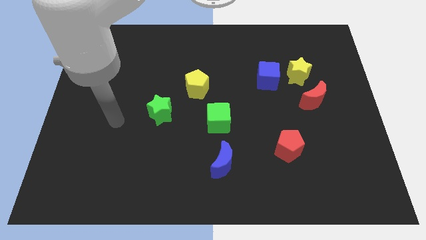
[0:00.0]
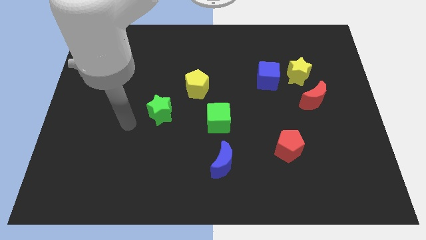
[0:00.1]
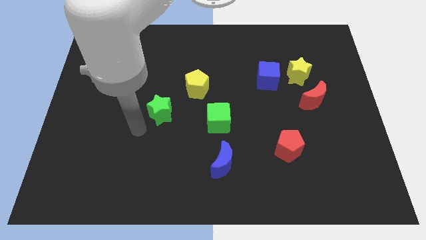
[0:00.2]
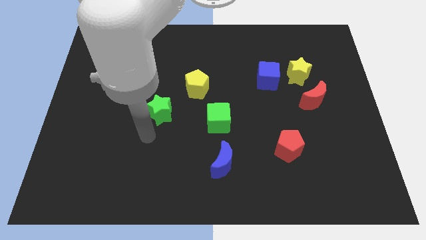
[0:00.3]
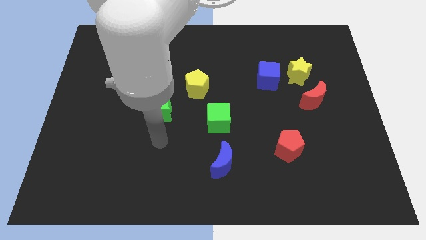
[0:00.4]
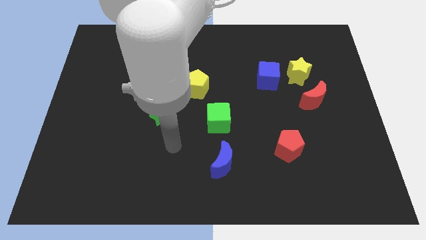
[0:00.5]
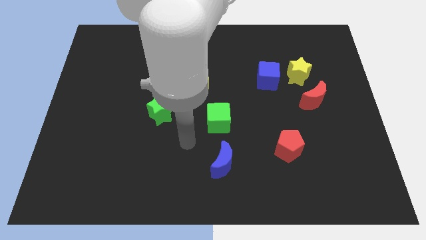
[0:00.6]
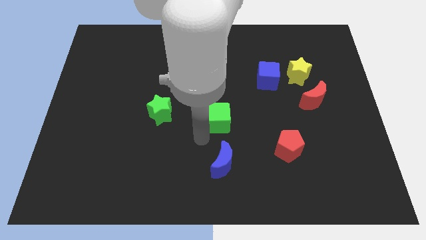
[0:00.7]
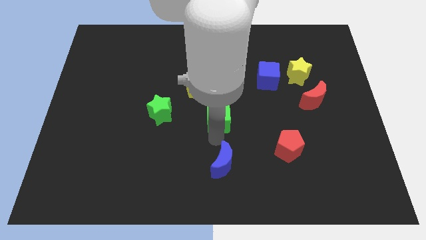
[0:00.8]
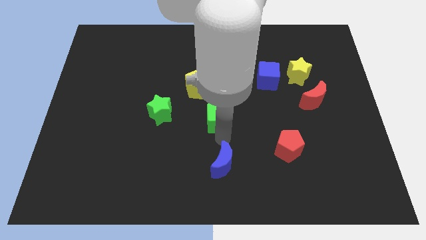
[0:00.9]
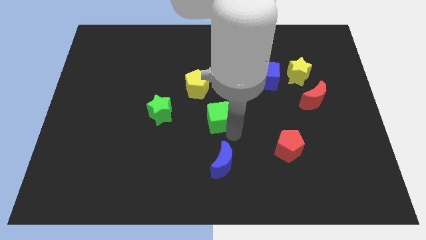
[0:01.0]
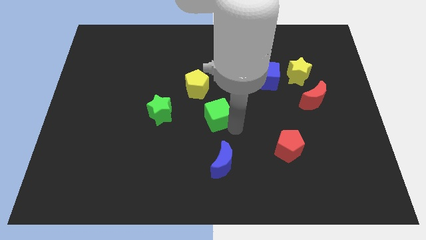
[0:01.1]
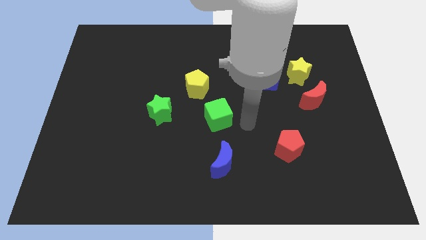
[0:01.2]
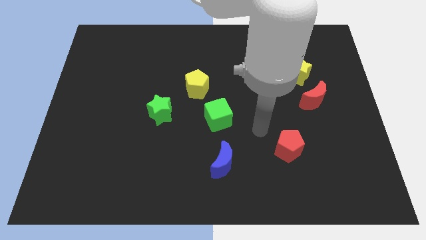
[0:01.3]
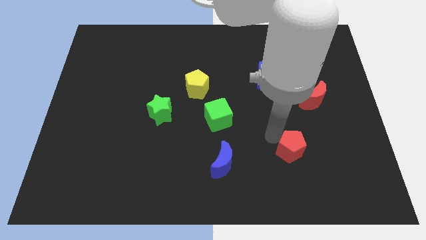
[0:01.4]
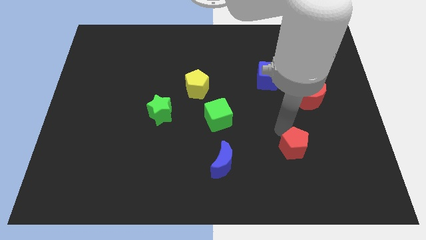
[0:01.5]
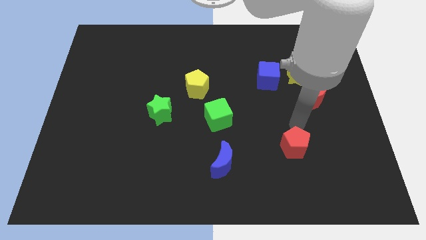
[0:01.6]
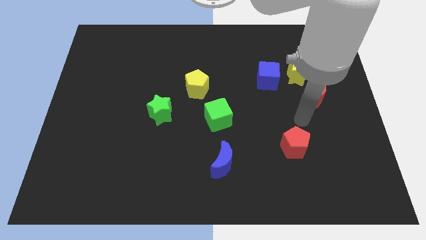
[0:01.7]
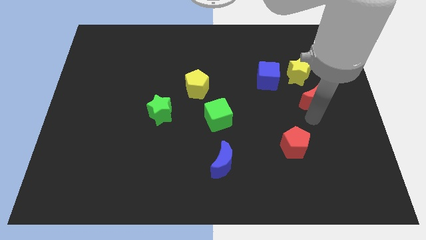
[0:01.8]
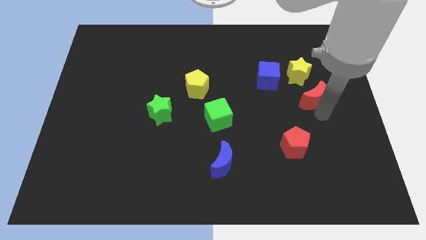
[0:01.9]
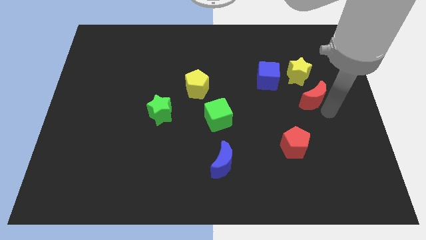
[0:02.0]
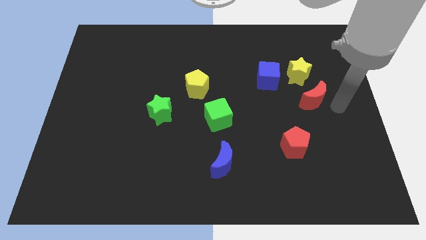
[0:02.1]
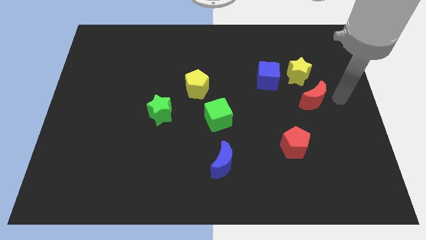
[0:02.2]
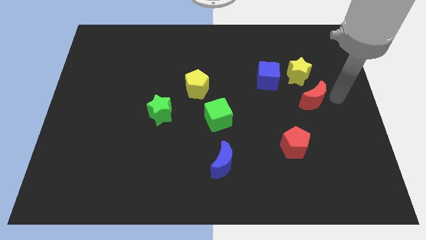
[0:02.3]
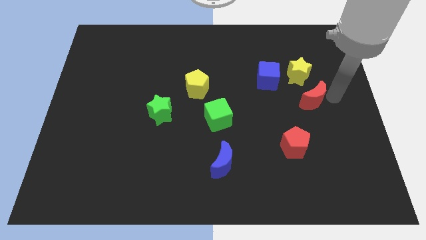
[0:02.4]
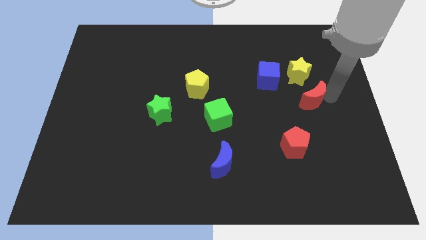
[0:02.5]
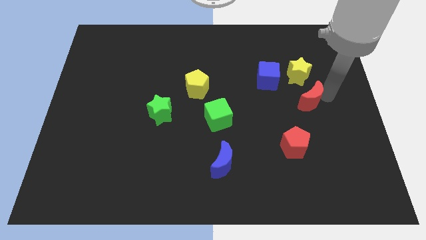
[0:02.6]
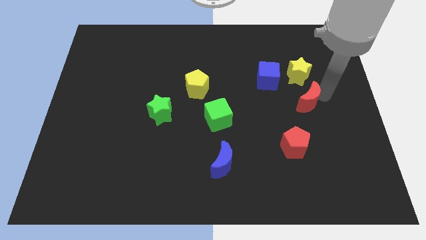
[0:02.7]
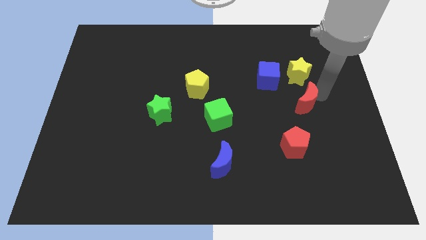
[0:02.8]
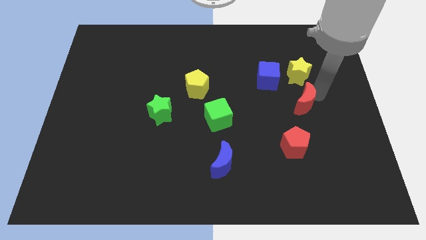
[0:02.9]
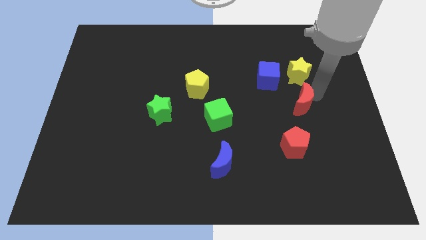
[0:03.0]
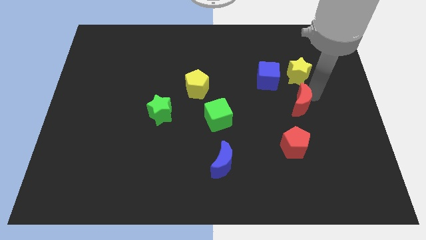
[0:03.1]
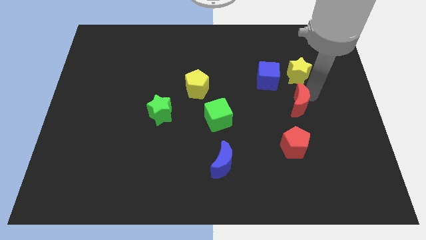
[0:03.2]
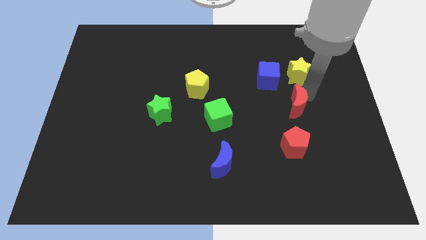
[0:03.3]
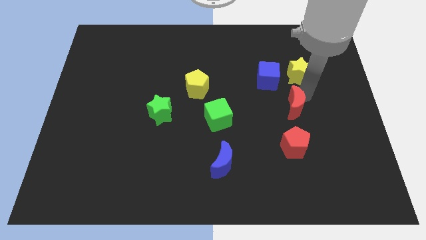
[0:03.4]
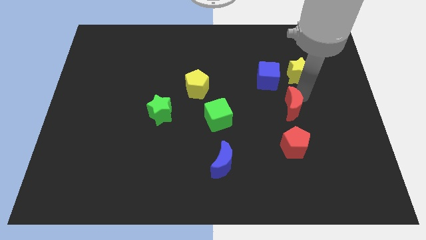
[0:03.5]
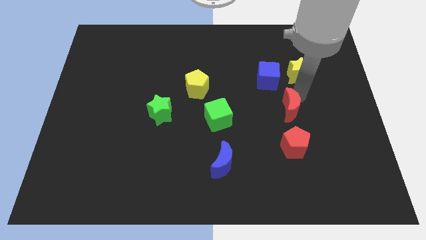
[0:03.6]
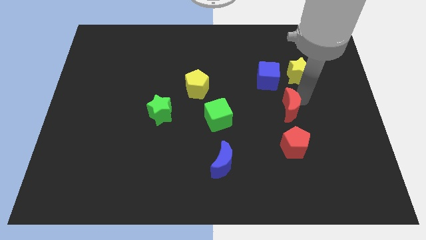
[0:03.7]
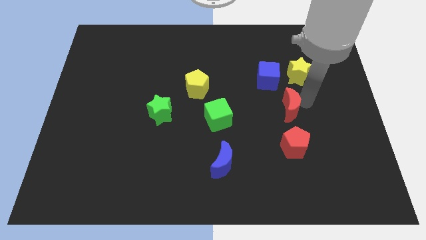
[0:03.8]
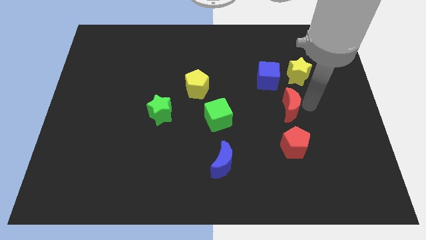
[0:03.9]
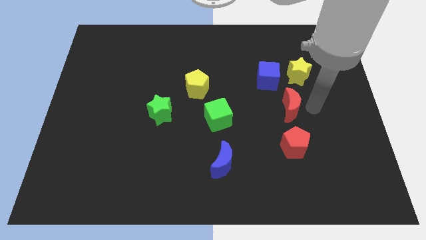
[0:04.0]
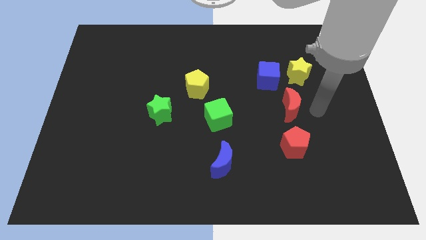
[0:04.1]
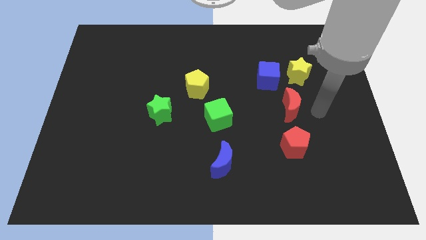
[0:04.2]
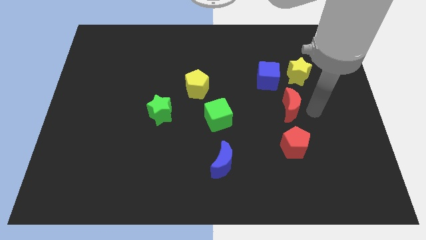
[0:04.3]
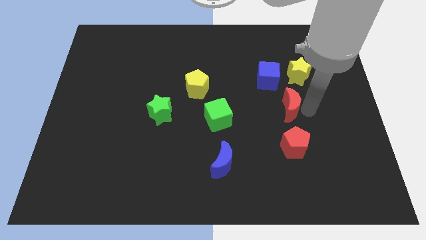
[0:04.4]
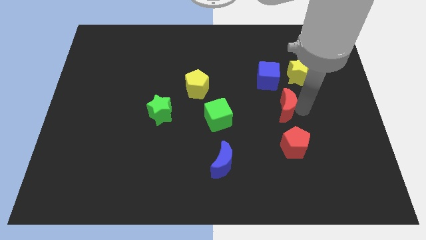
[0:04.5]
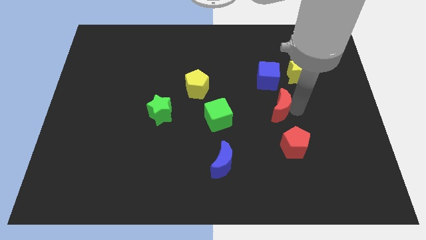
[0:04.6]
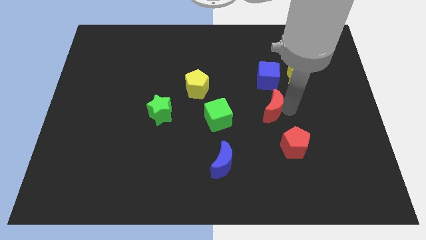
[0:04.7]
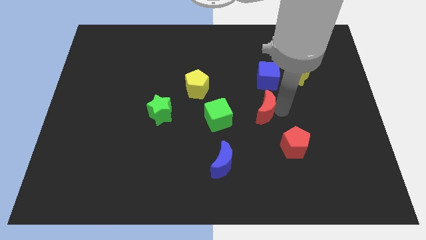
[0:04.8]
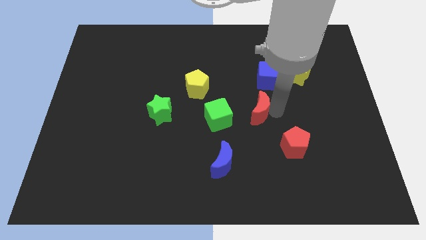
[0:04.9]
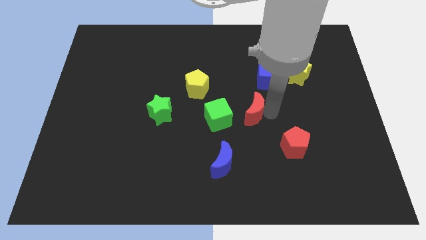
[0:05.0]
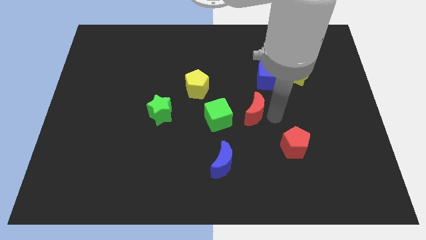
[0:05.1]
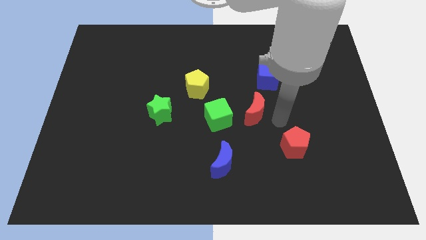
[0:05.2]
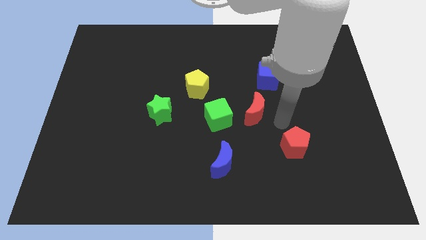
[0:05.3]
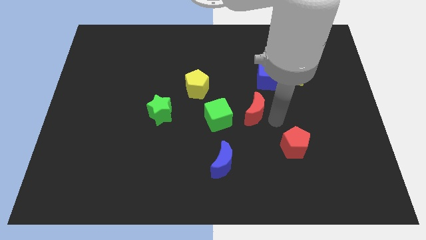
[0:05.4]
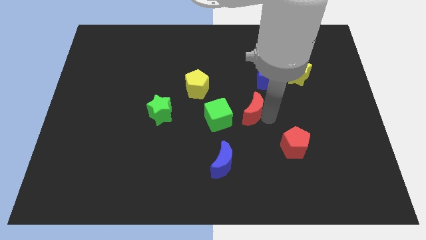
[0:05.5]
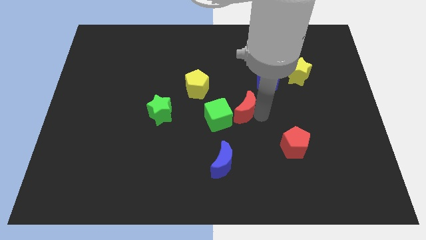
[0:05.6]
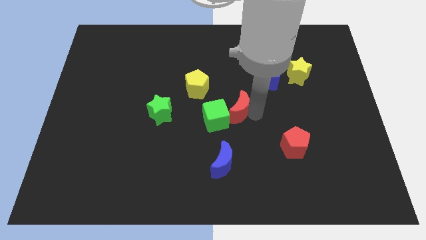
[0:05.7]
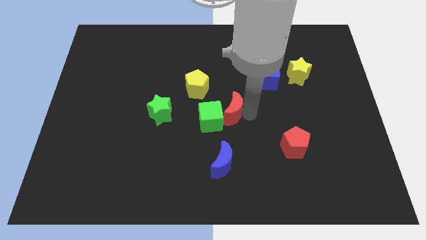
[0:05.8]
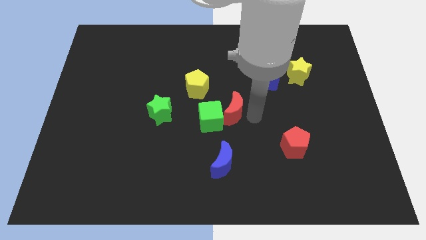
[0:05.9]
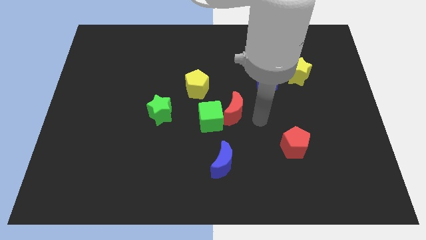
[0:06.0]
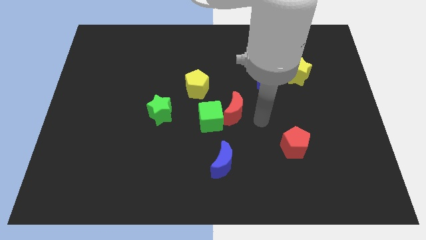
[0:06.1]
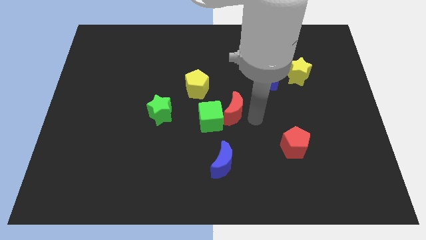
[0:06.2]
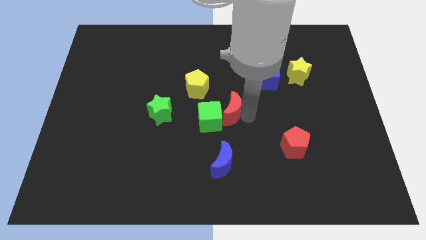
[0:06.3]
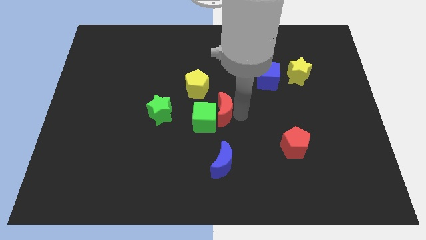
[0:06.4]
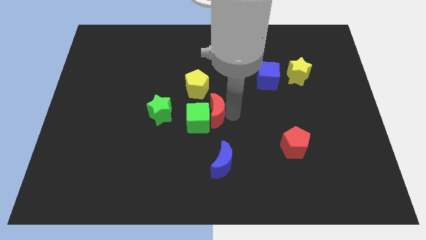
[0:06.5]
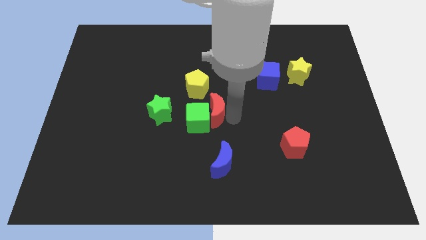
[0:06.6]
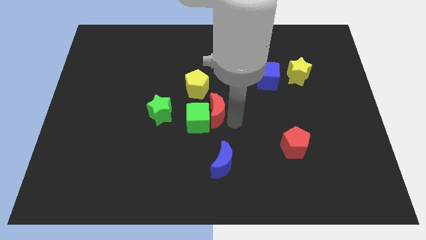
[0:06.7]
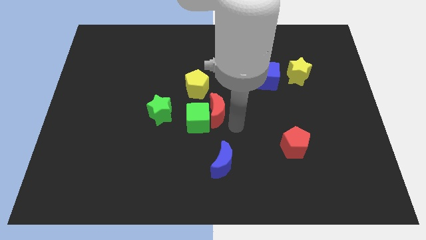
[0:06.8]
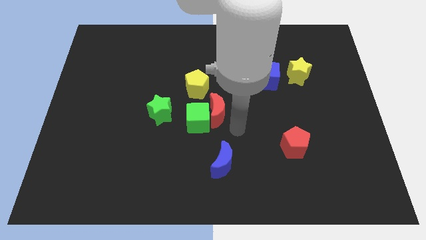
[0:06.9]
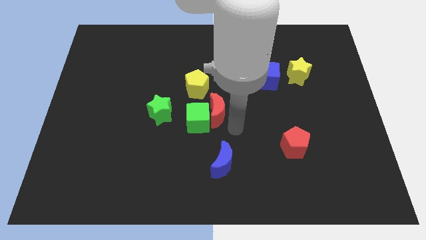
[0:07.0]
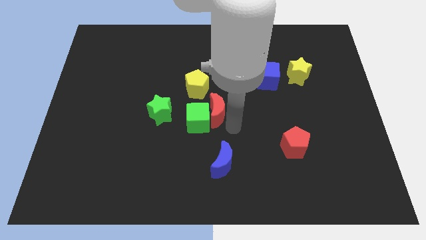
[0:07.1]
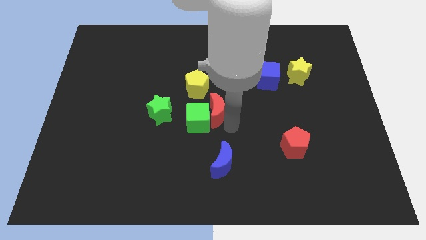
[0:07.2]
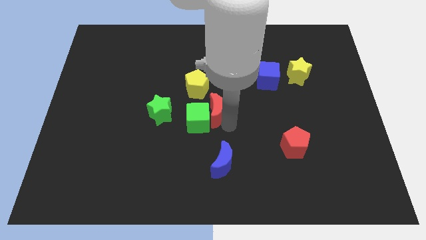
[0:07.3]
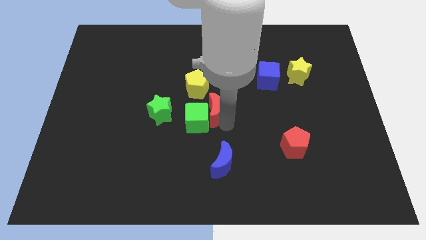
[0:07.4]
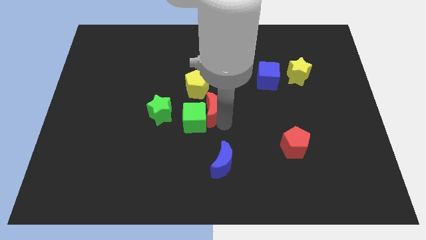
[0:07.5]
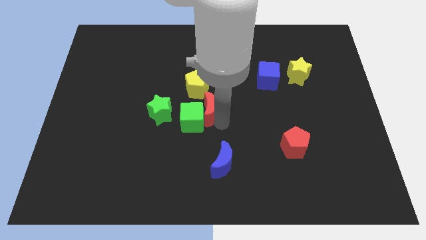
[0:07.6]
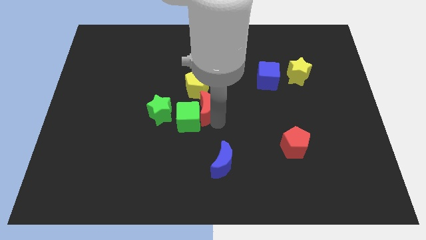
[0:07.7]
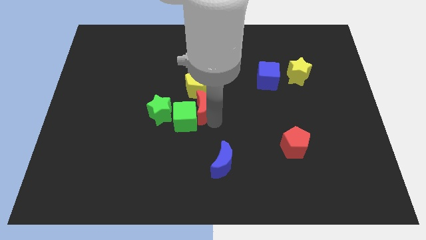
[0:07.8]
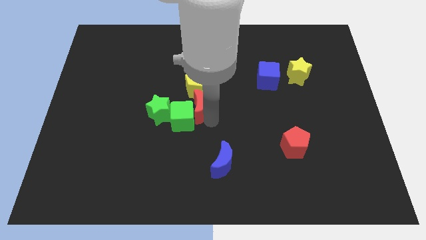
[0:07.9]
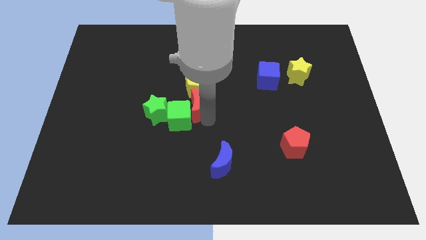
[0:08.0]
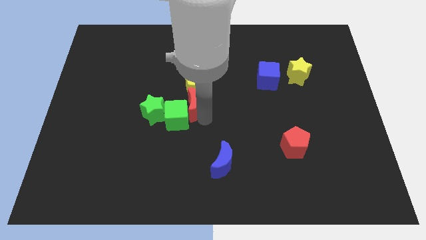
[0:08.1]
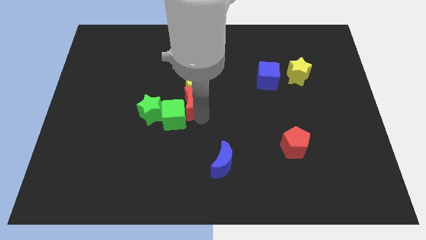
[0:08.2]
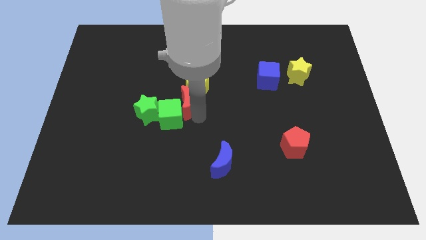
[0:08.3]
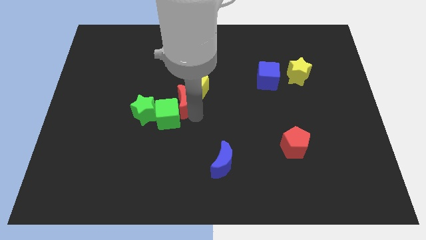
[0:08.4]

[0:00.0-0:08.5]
slide the red moon diagonally up and to the right of the green star
